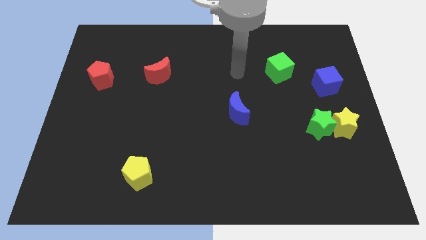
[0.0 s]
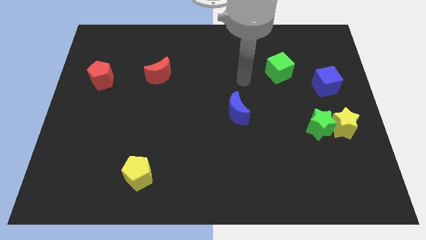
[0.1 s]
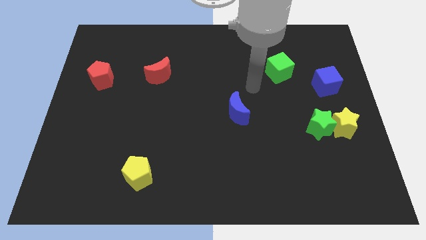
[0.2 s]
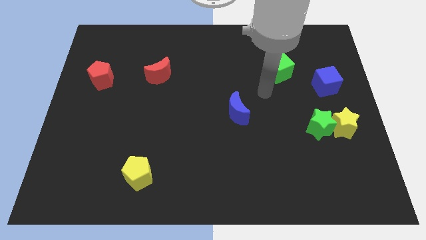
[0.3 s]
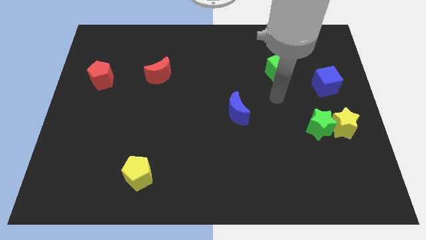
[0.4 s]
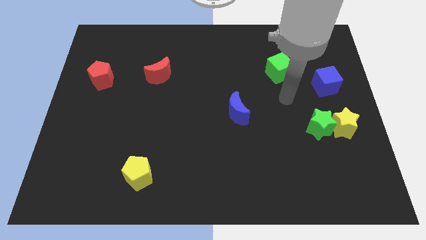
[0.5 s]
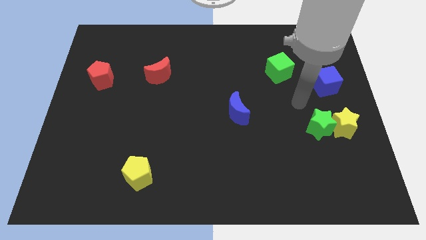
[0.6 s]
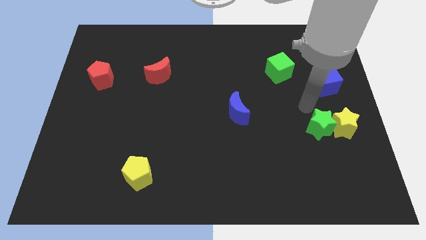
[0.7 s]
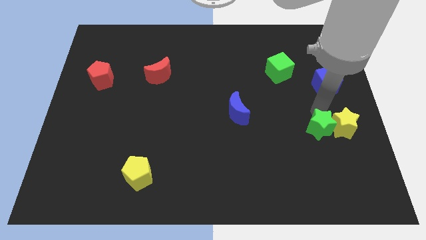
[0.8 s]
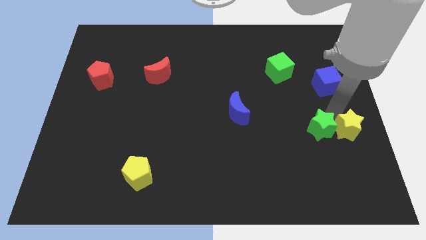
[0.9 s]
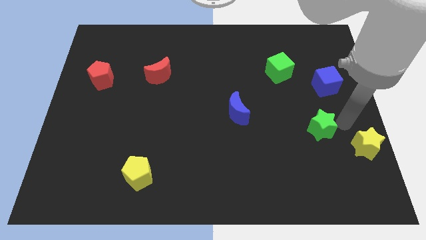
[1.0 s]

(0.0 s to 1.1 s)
pull the green star apart from the yellow star

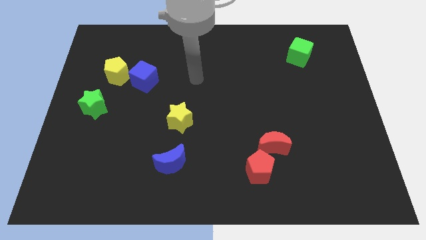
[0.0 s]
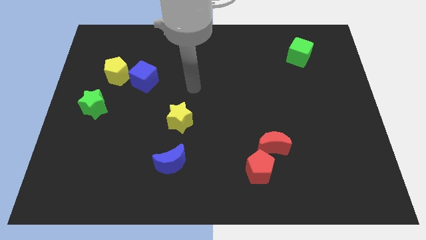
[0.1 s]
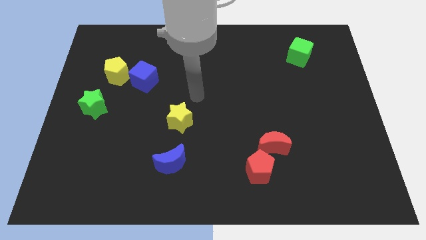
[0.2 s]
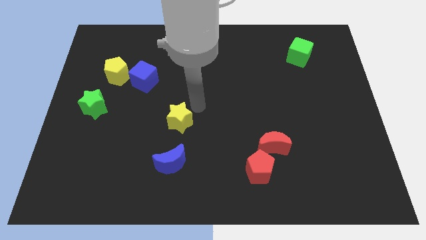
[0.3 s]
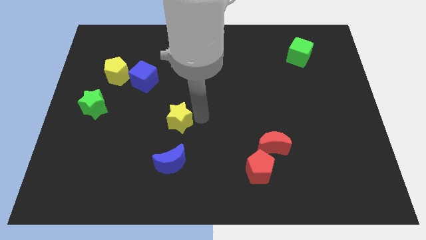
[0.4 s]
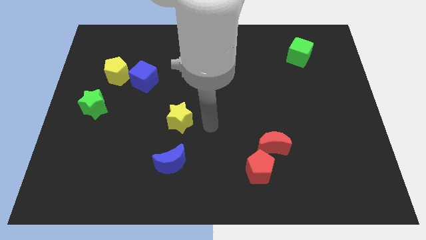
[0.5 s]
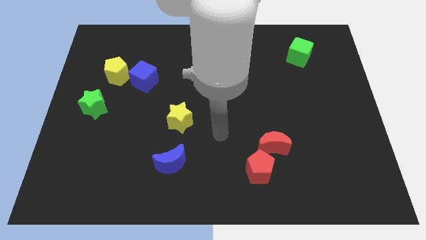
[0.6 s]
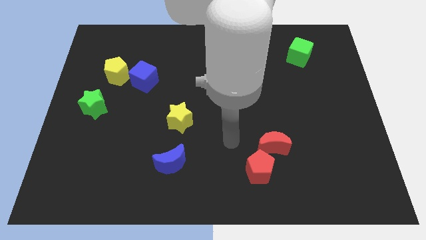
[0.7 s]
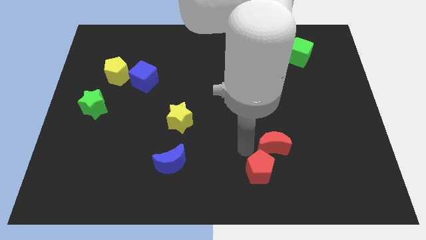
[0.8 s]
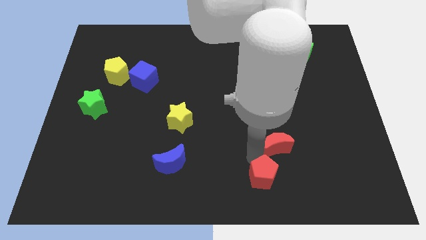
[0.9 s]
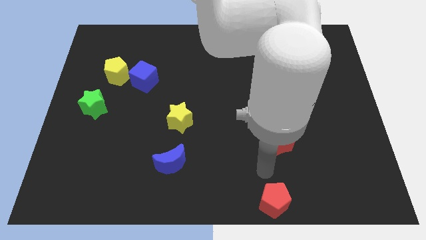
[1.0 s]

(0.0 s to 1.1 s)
separate the red moon from the red pentagon

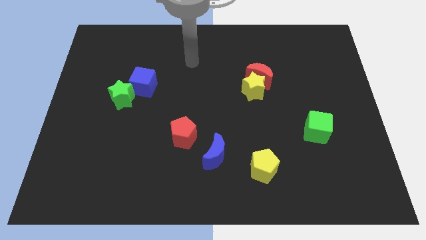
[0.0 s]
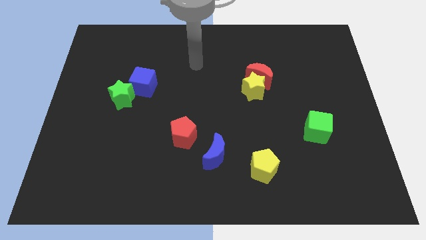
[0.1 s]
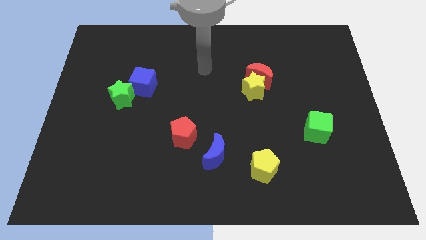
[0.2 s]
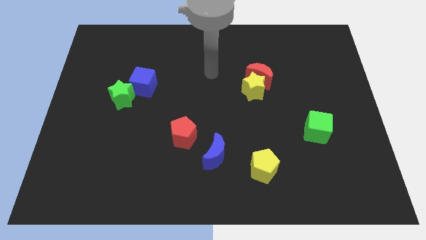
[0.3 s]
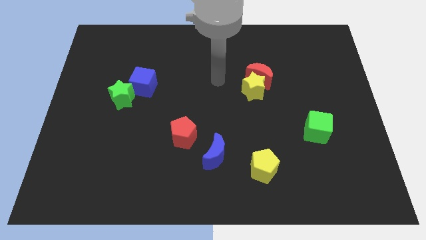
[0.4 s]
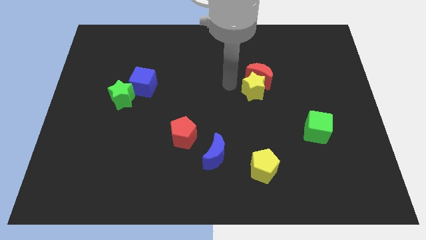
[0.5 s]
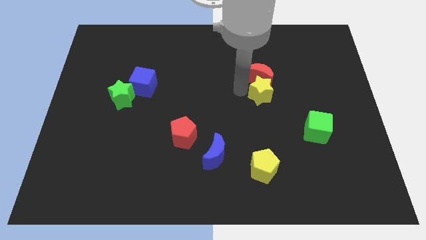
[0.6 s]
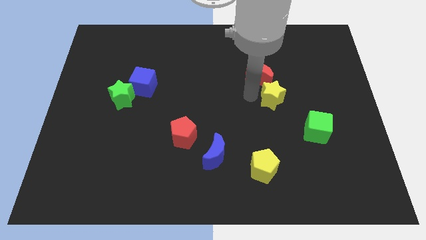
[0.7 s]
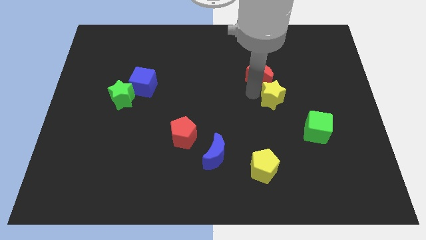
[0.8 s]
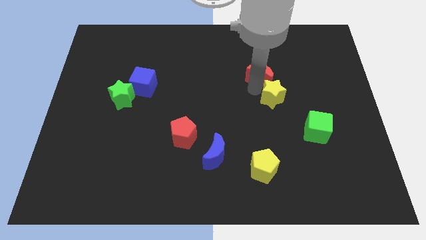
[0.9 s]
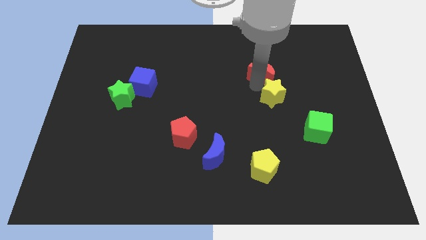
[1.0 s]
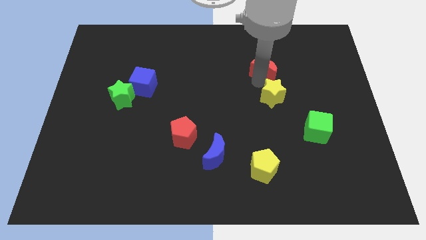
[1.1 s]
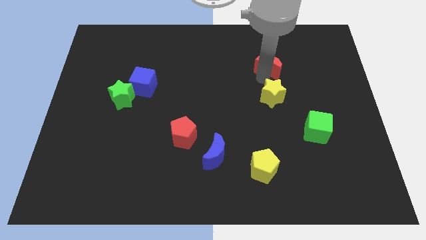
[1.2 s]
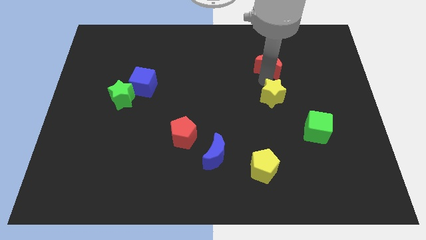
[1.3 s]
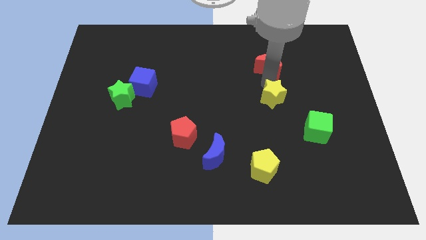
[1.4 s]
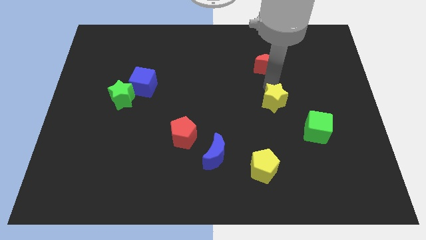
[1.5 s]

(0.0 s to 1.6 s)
move the red moon away from the yellow star

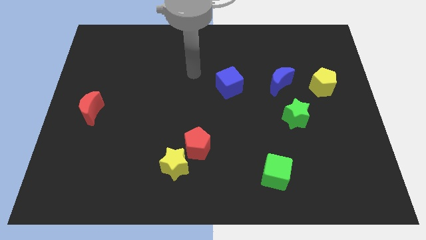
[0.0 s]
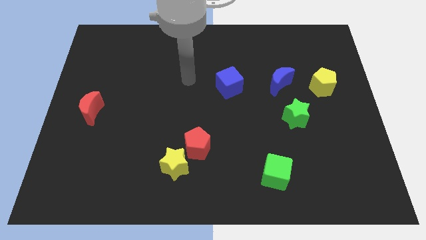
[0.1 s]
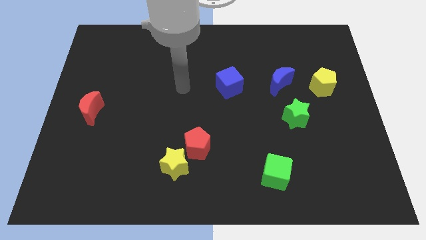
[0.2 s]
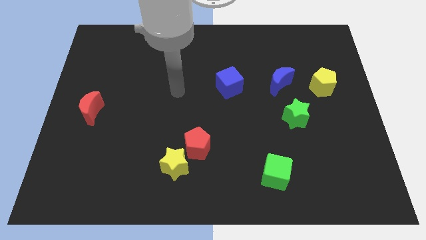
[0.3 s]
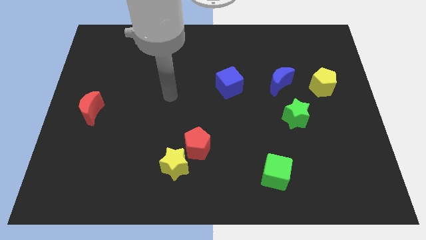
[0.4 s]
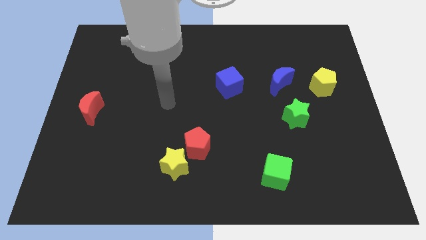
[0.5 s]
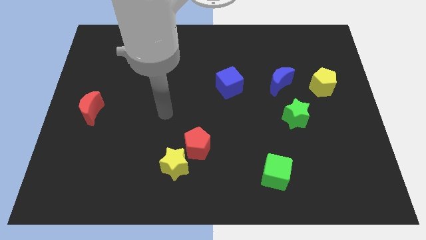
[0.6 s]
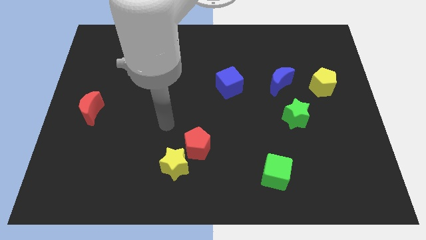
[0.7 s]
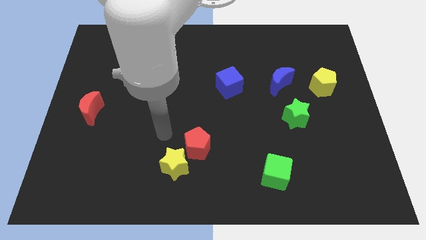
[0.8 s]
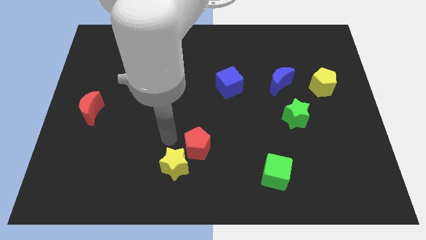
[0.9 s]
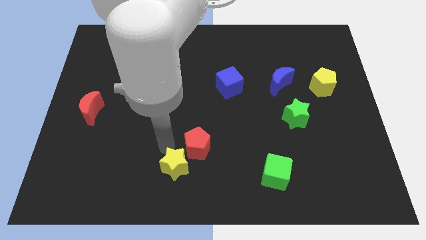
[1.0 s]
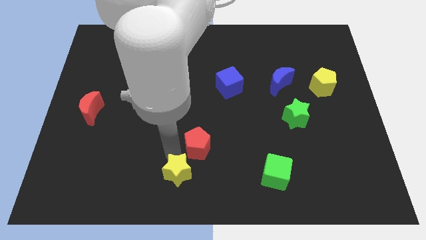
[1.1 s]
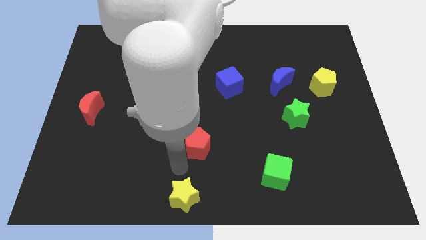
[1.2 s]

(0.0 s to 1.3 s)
pull the red pentagon apart from the yellow star

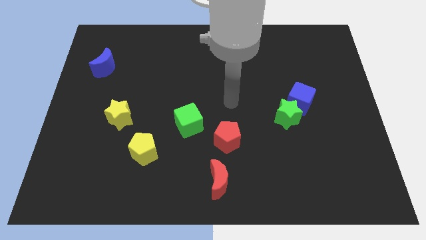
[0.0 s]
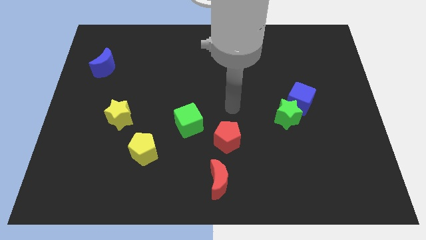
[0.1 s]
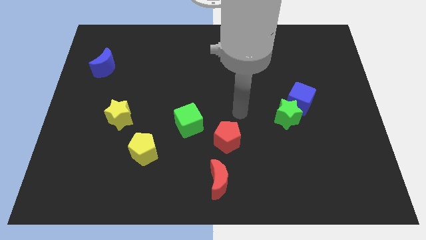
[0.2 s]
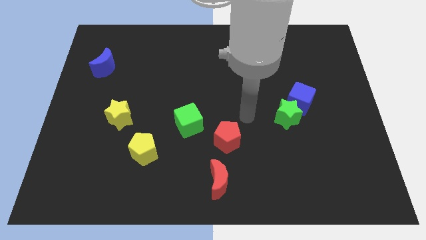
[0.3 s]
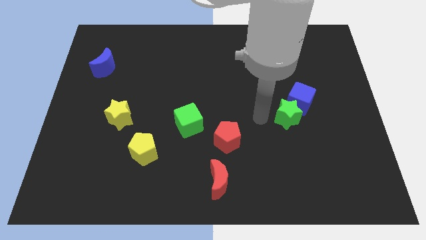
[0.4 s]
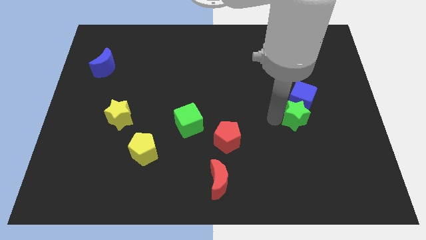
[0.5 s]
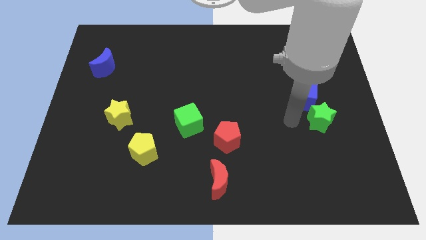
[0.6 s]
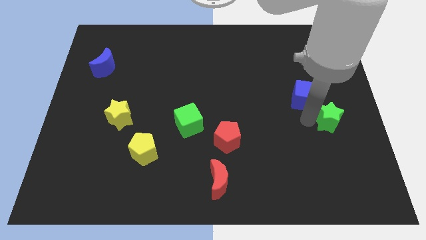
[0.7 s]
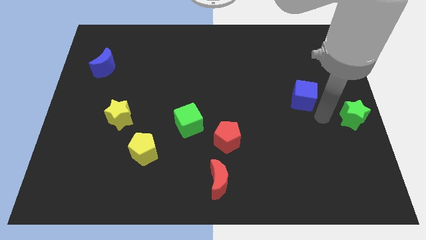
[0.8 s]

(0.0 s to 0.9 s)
separate the blue cube from the green star

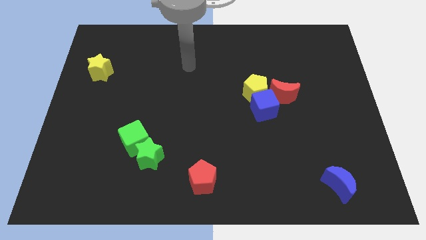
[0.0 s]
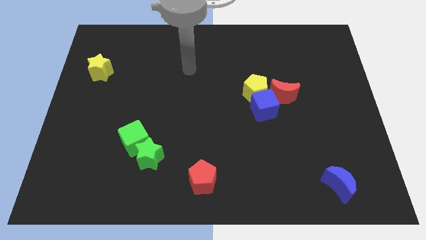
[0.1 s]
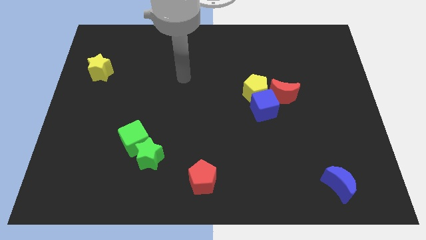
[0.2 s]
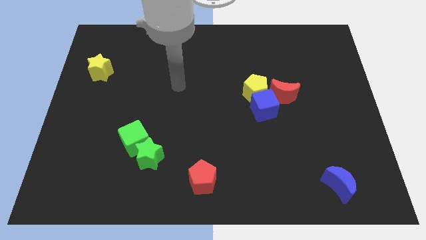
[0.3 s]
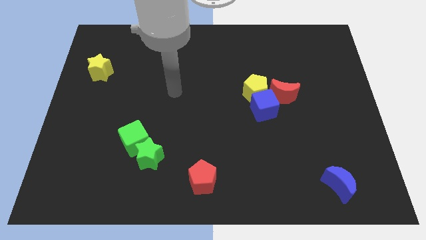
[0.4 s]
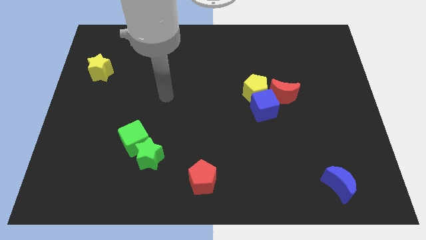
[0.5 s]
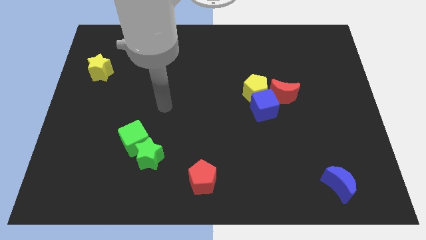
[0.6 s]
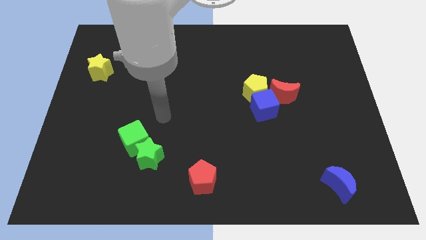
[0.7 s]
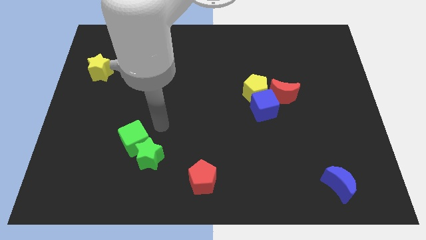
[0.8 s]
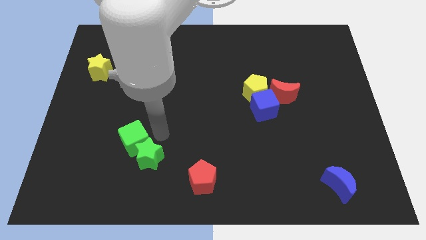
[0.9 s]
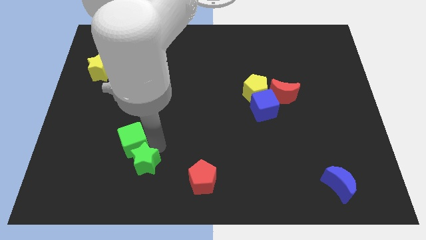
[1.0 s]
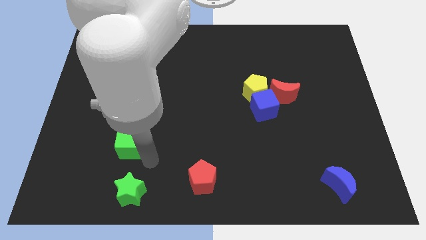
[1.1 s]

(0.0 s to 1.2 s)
move the green cube away from the green star

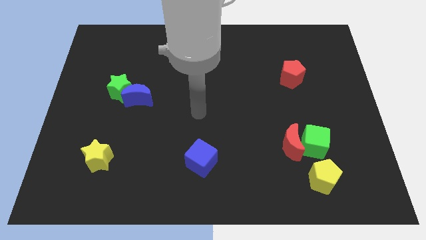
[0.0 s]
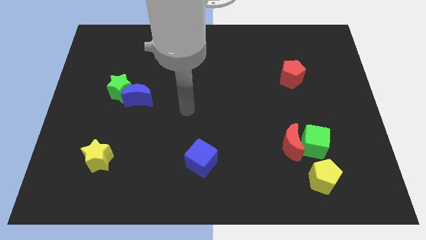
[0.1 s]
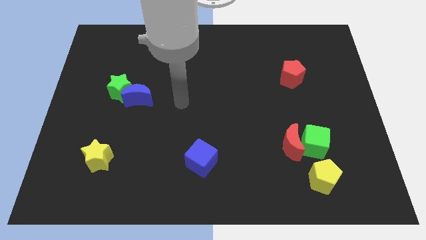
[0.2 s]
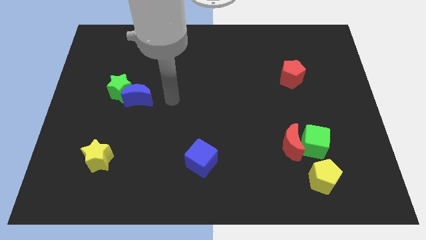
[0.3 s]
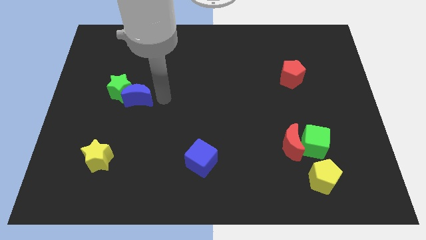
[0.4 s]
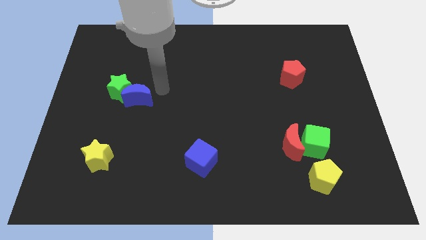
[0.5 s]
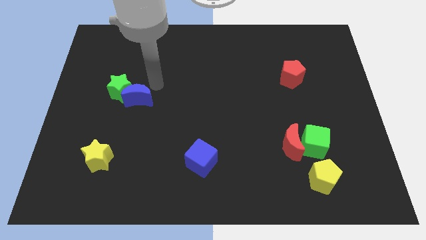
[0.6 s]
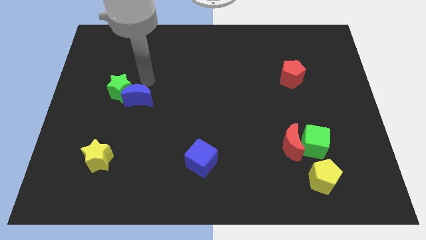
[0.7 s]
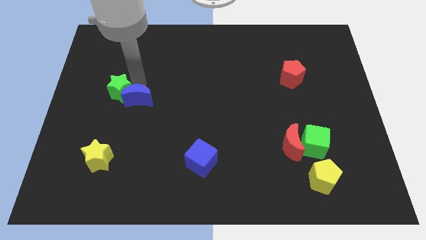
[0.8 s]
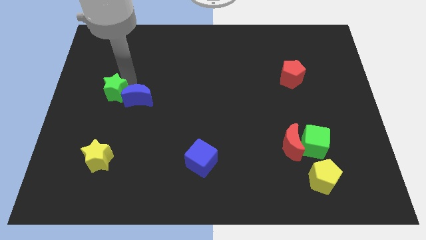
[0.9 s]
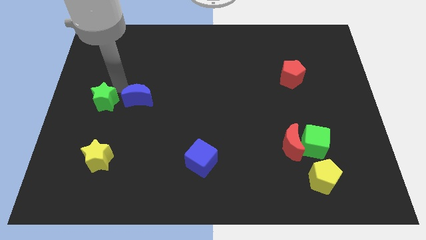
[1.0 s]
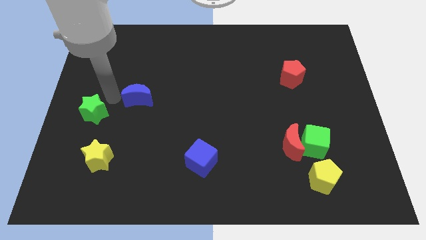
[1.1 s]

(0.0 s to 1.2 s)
pull the blue moon apart from the green star

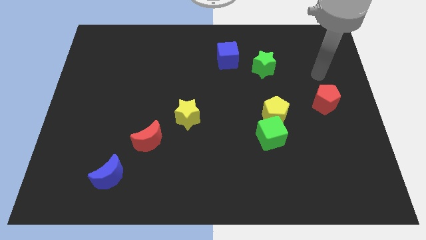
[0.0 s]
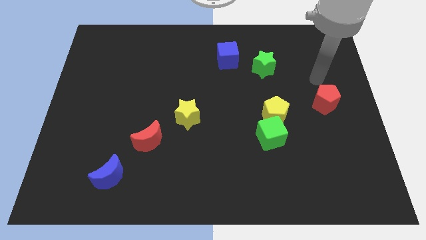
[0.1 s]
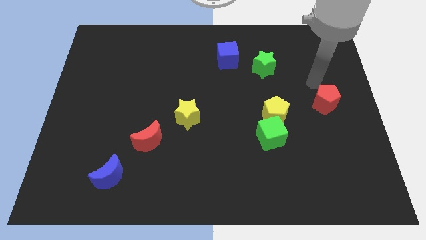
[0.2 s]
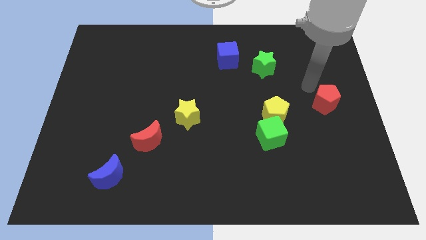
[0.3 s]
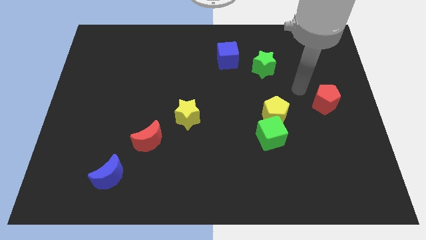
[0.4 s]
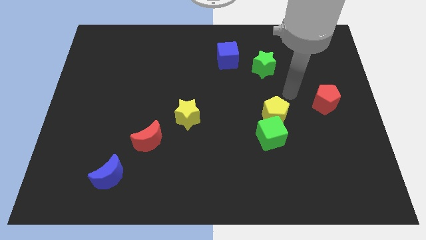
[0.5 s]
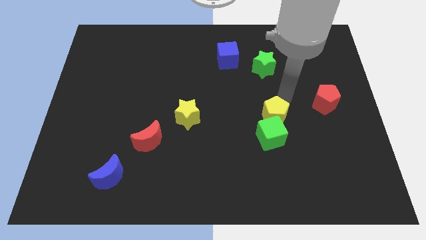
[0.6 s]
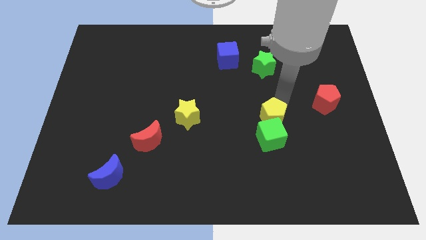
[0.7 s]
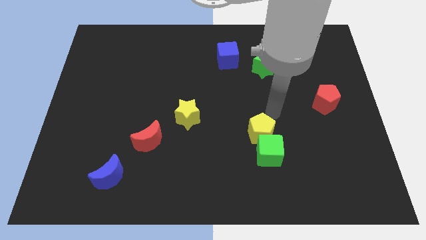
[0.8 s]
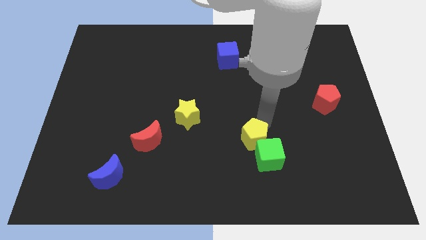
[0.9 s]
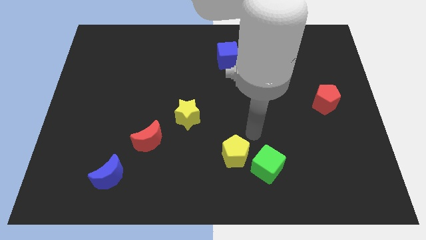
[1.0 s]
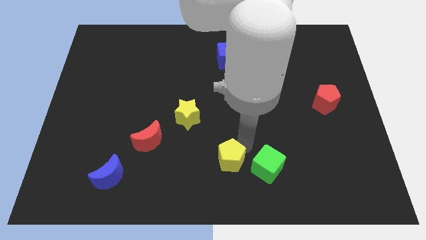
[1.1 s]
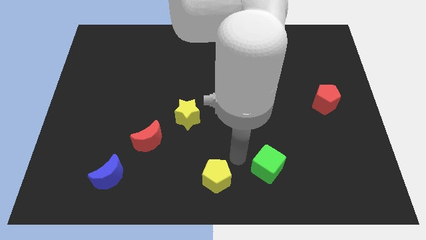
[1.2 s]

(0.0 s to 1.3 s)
separate the green cube from the yellow pentagon
